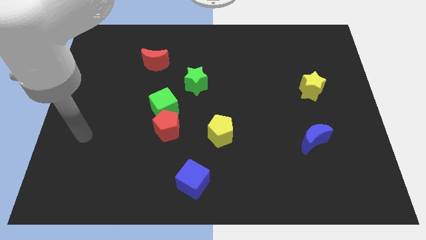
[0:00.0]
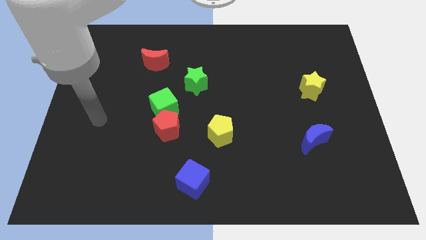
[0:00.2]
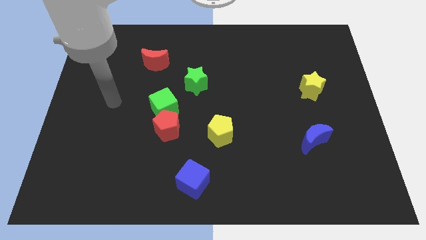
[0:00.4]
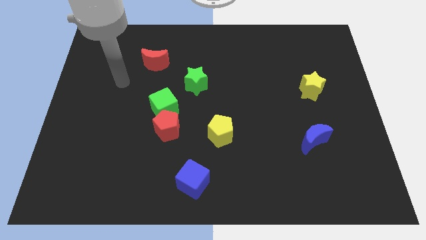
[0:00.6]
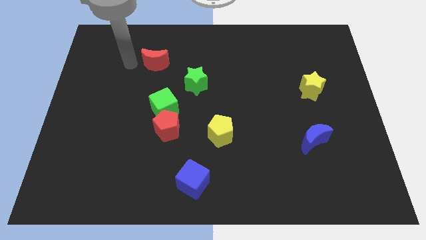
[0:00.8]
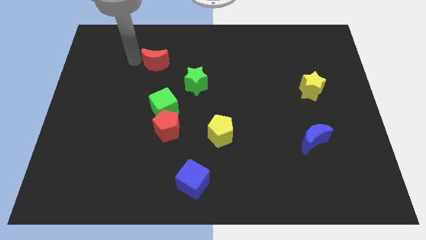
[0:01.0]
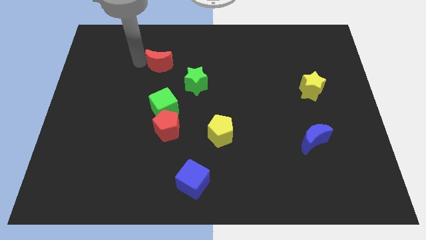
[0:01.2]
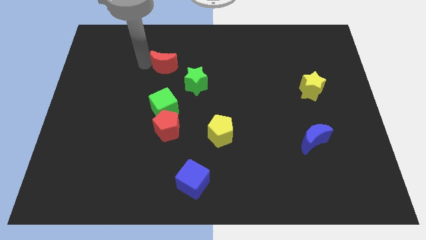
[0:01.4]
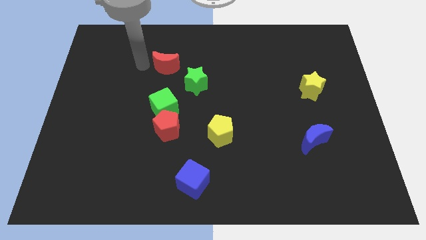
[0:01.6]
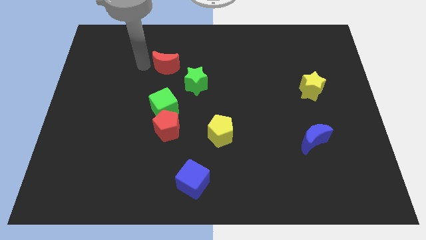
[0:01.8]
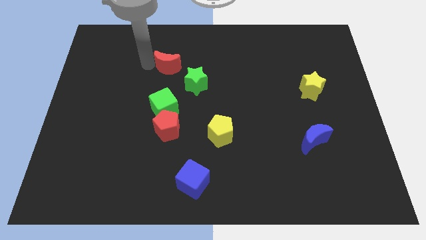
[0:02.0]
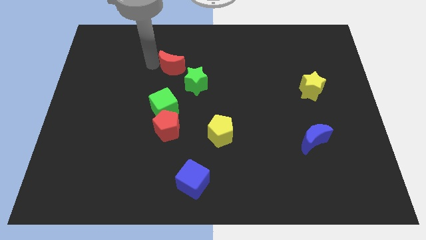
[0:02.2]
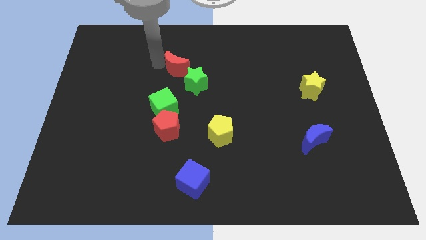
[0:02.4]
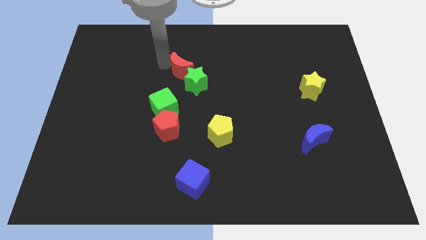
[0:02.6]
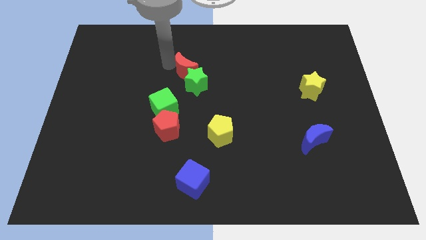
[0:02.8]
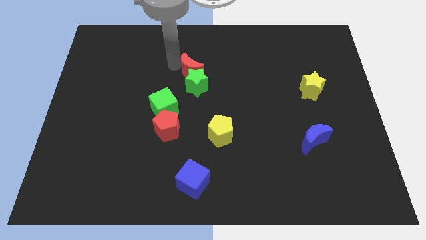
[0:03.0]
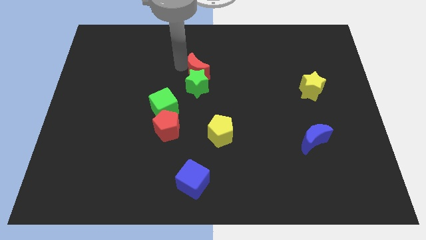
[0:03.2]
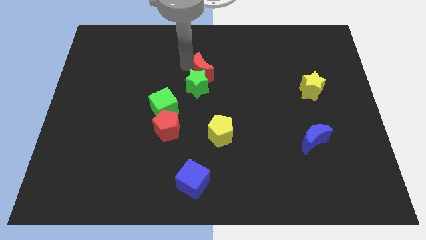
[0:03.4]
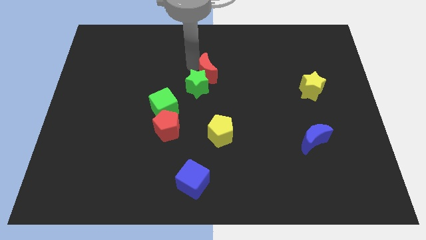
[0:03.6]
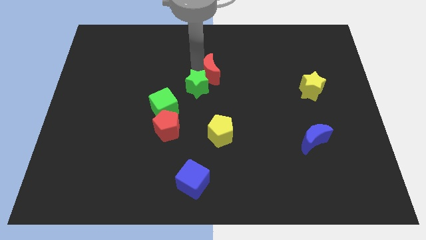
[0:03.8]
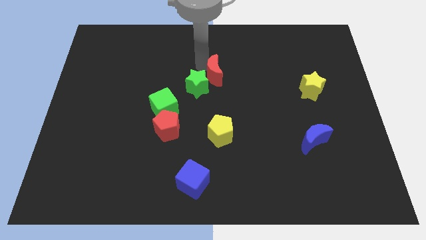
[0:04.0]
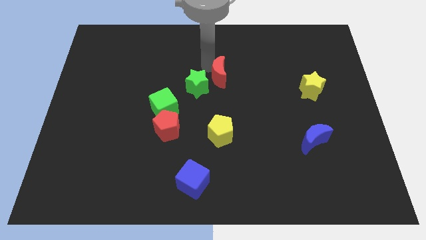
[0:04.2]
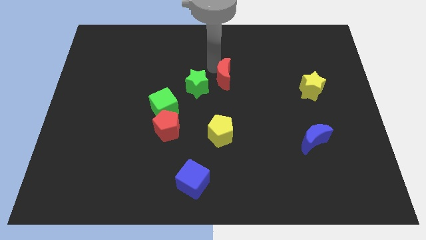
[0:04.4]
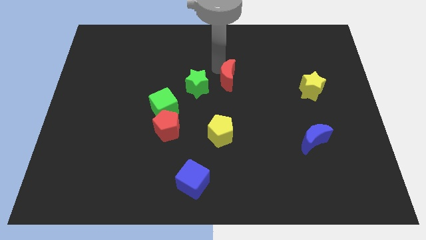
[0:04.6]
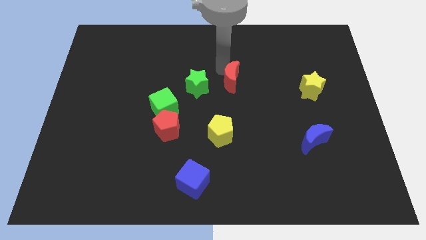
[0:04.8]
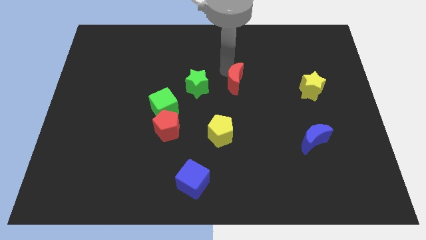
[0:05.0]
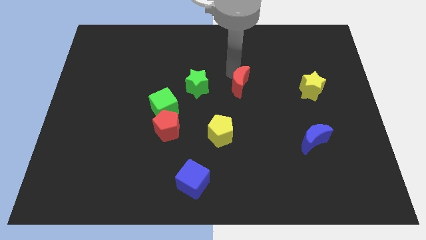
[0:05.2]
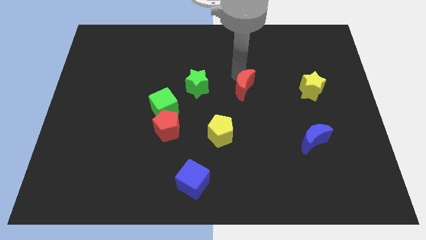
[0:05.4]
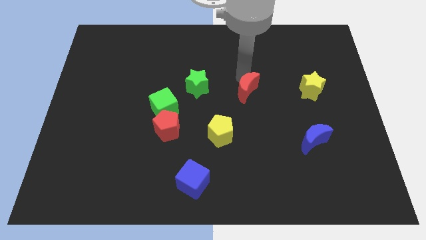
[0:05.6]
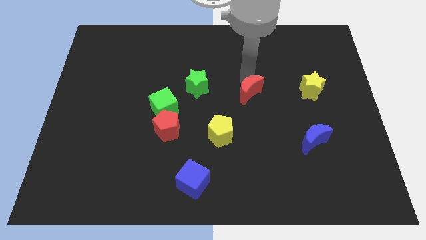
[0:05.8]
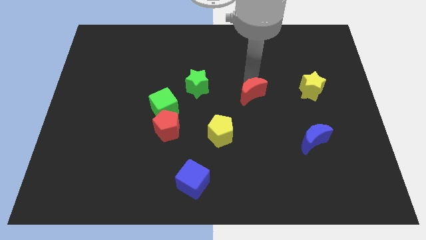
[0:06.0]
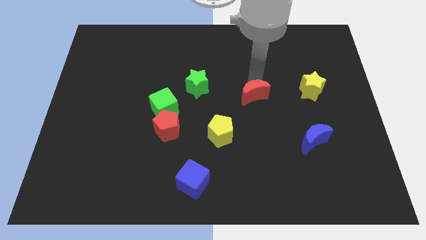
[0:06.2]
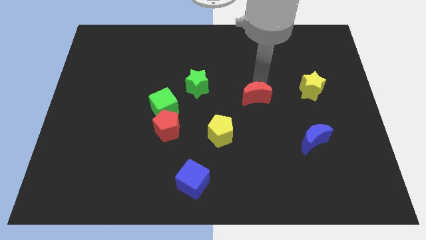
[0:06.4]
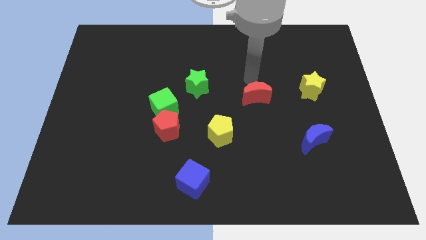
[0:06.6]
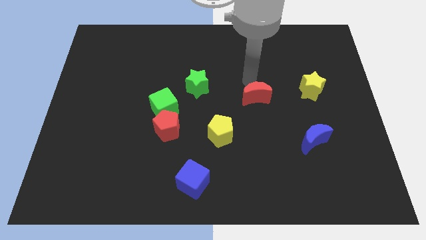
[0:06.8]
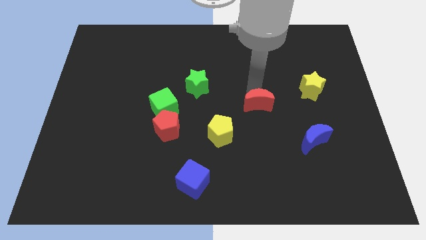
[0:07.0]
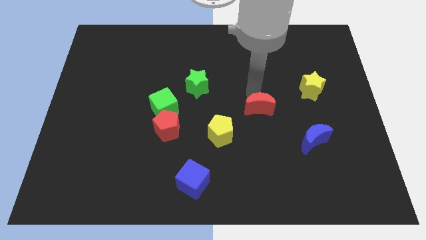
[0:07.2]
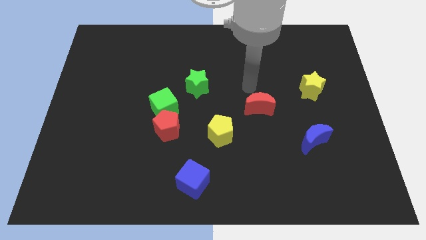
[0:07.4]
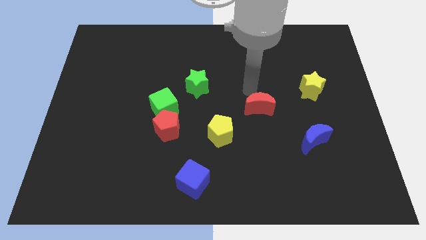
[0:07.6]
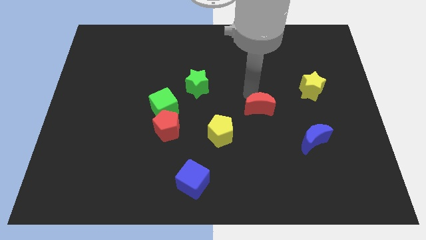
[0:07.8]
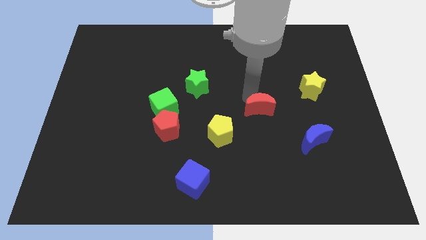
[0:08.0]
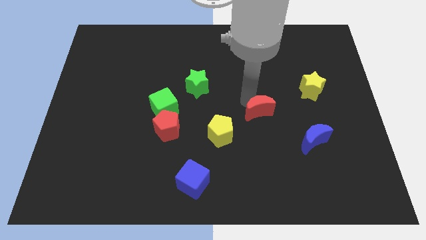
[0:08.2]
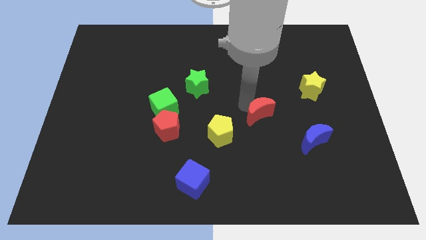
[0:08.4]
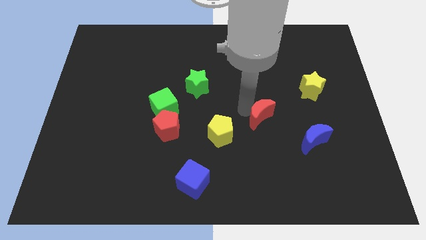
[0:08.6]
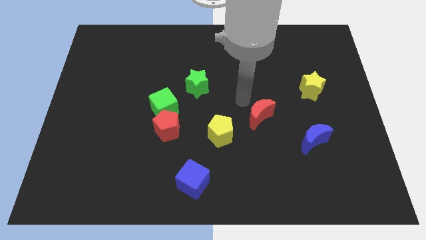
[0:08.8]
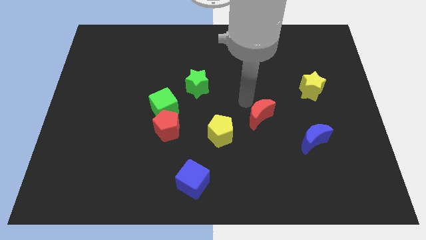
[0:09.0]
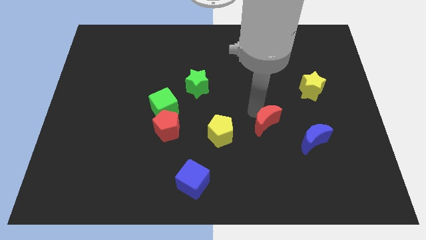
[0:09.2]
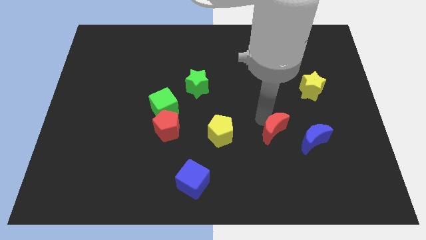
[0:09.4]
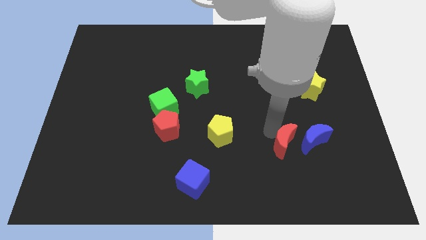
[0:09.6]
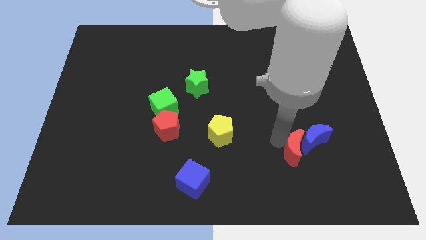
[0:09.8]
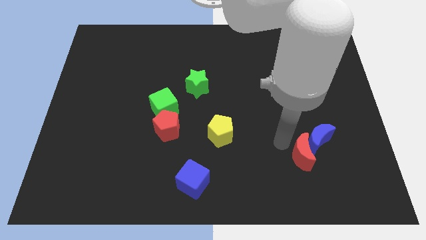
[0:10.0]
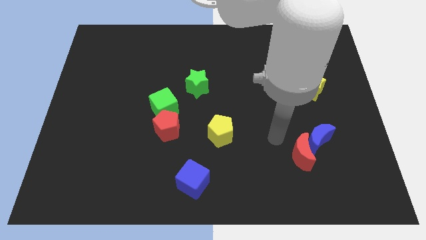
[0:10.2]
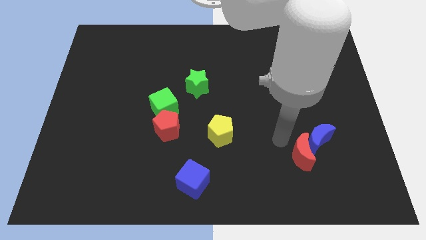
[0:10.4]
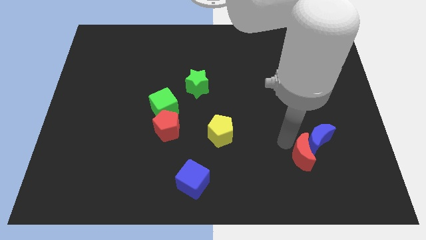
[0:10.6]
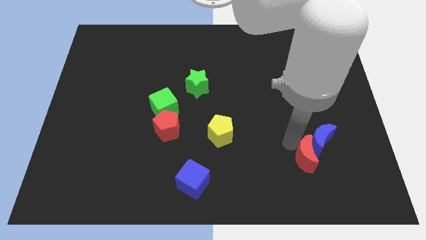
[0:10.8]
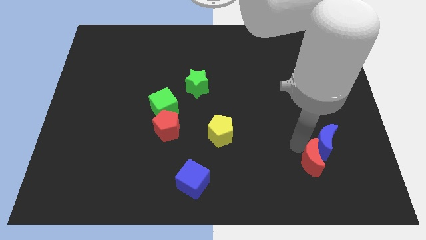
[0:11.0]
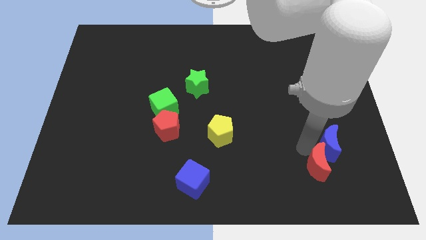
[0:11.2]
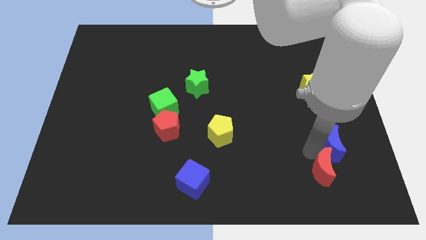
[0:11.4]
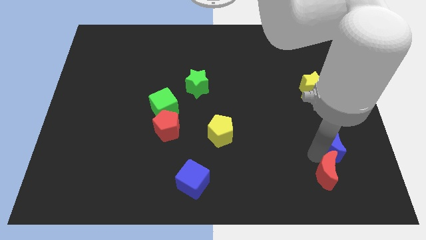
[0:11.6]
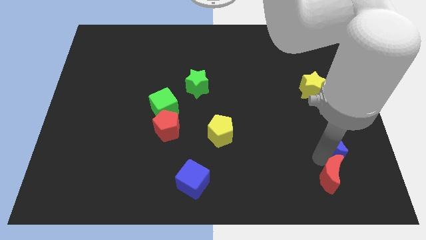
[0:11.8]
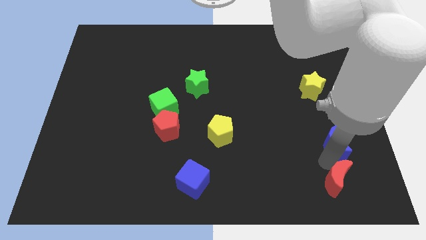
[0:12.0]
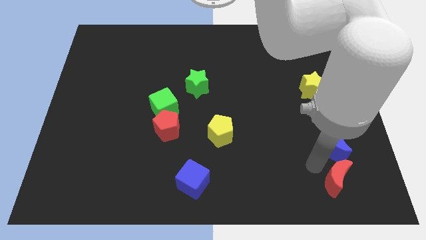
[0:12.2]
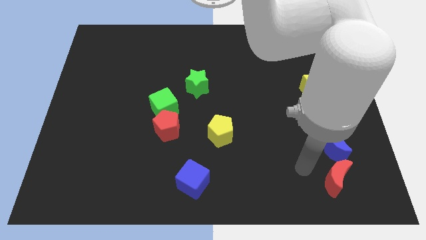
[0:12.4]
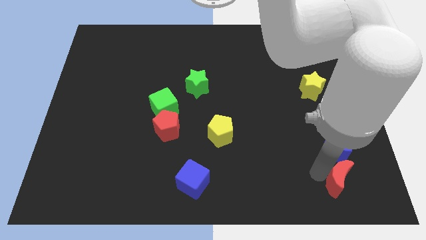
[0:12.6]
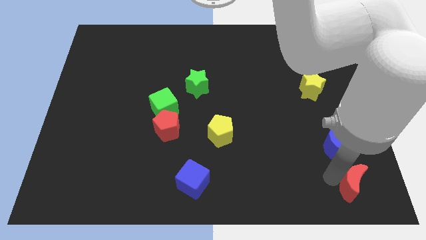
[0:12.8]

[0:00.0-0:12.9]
slide the red moon to the bottom right
